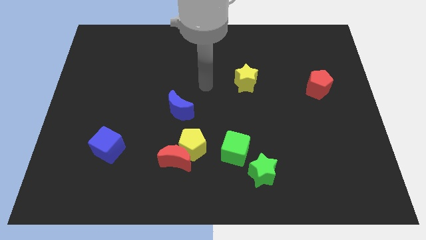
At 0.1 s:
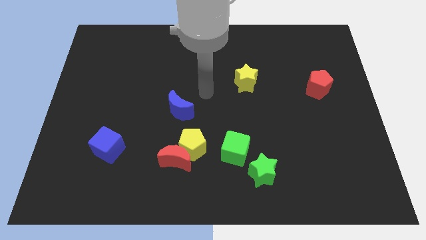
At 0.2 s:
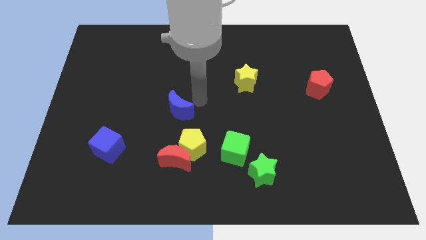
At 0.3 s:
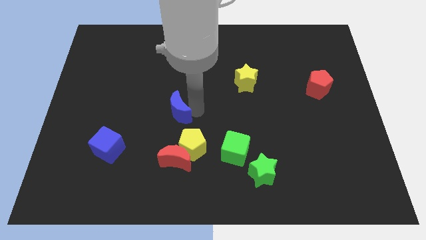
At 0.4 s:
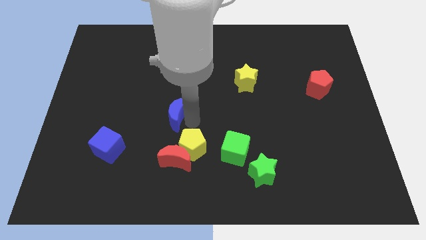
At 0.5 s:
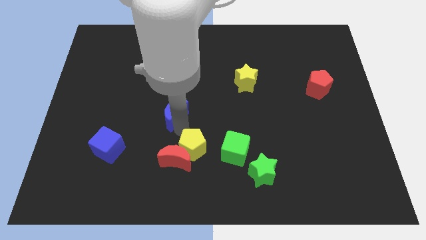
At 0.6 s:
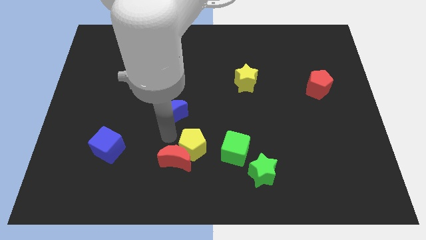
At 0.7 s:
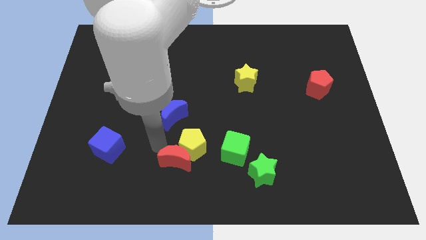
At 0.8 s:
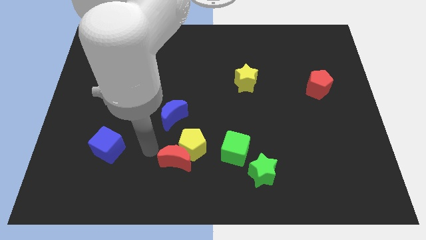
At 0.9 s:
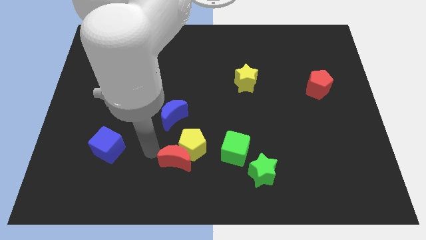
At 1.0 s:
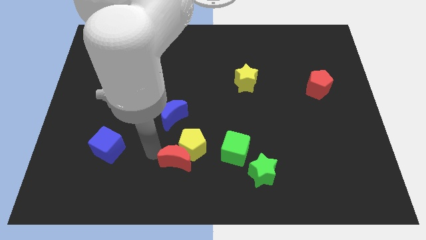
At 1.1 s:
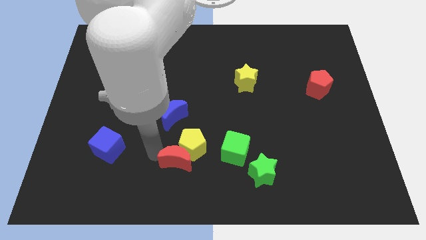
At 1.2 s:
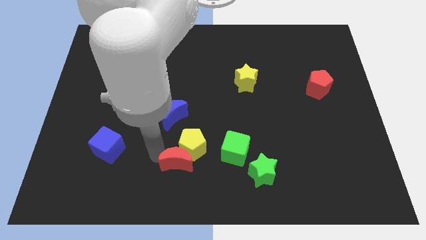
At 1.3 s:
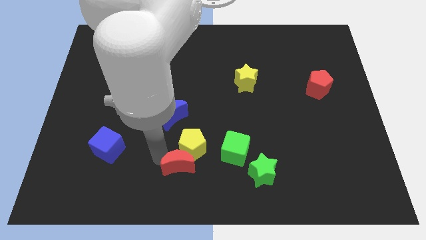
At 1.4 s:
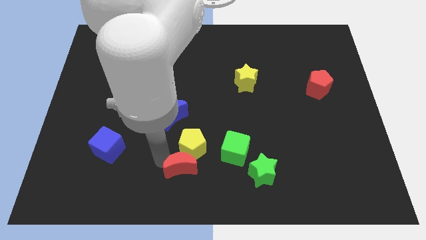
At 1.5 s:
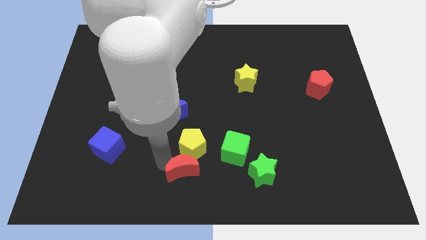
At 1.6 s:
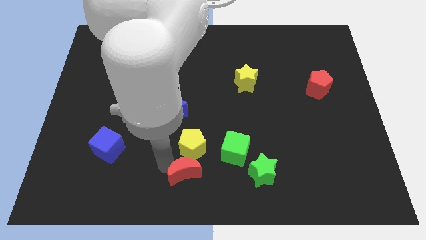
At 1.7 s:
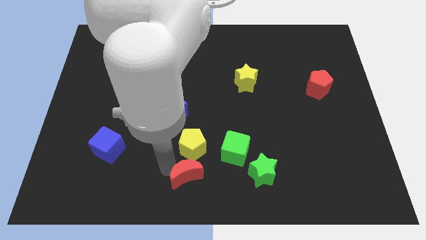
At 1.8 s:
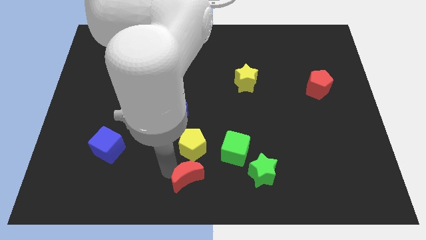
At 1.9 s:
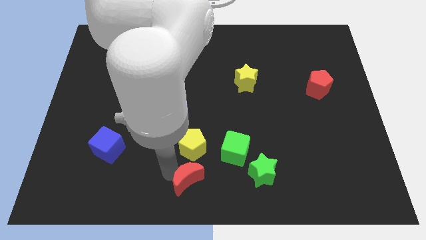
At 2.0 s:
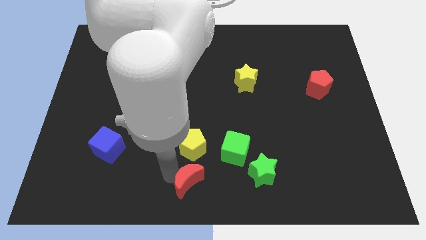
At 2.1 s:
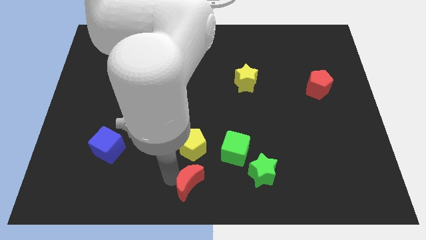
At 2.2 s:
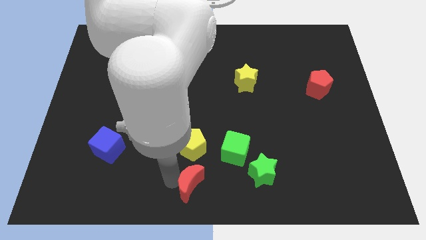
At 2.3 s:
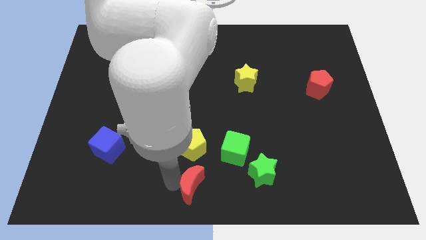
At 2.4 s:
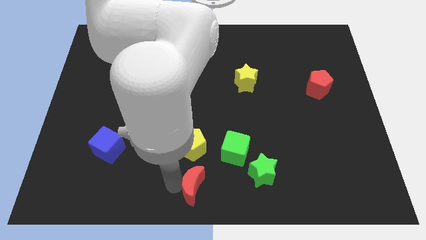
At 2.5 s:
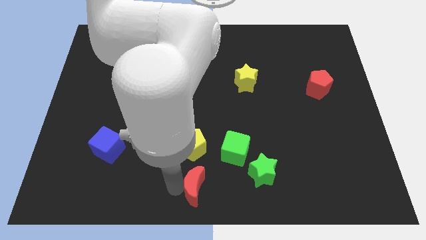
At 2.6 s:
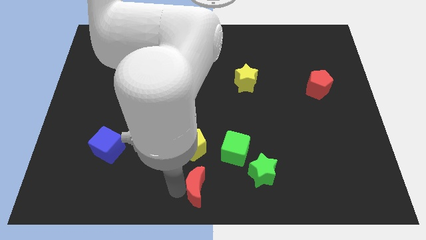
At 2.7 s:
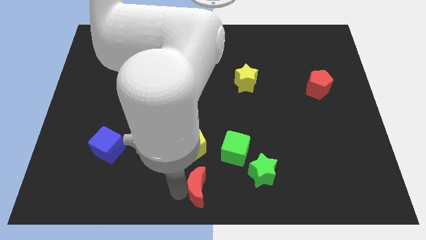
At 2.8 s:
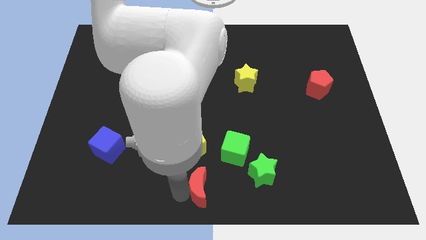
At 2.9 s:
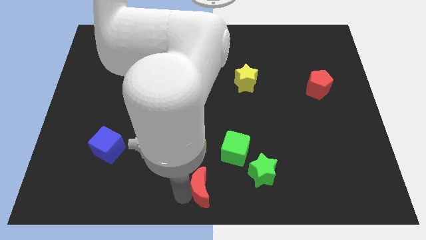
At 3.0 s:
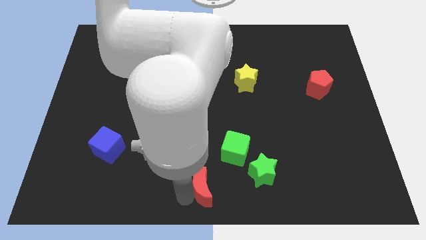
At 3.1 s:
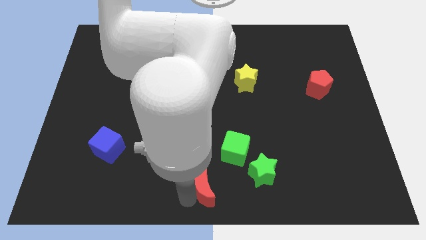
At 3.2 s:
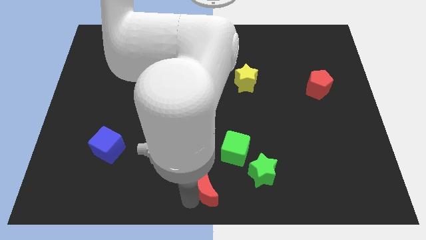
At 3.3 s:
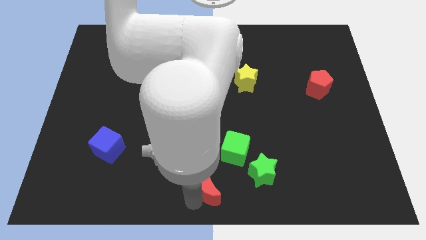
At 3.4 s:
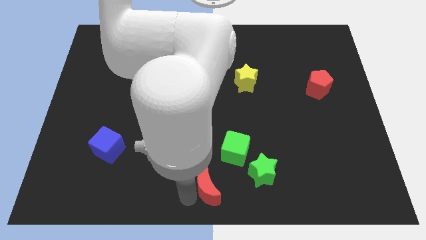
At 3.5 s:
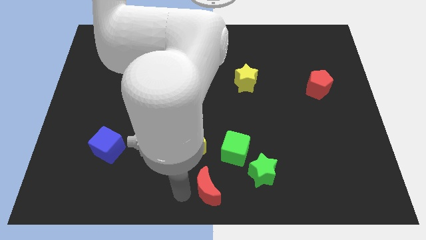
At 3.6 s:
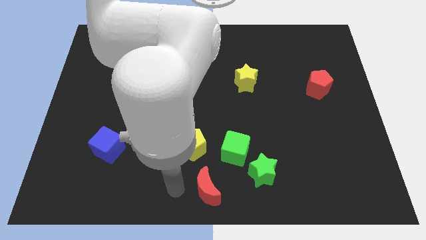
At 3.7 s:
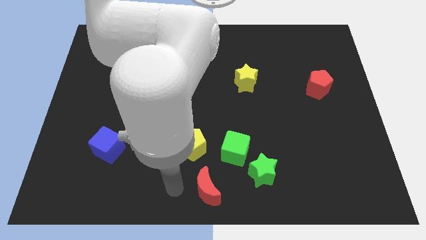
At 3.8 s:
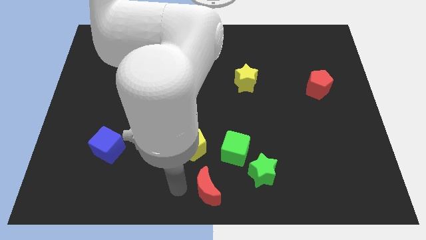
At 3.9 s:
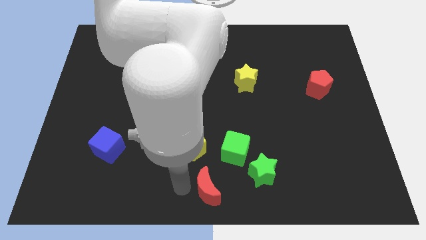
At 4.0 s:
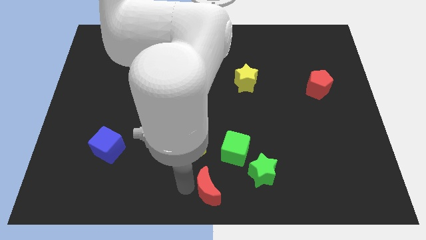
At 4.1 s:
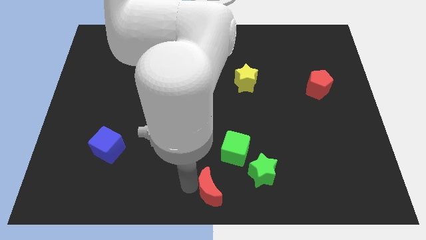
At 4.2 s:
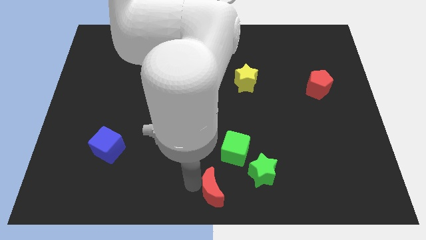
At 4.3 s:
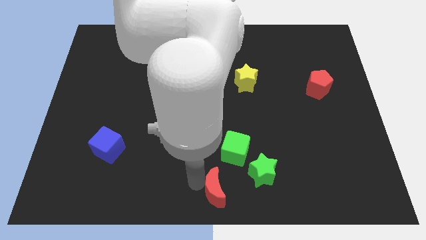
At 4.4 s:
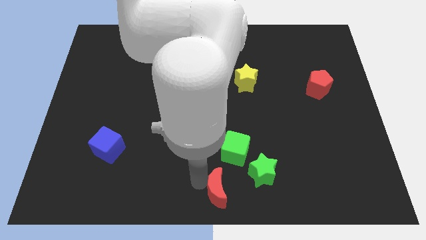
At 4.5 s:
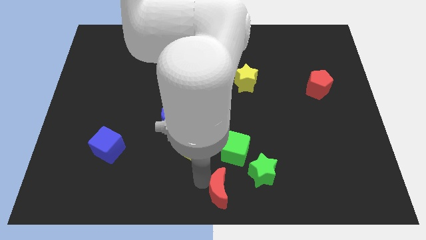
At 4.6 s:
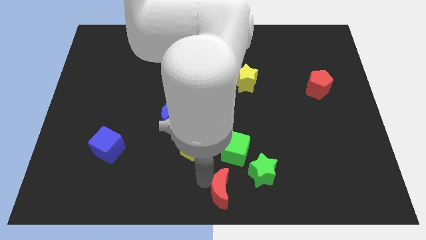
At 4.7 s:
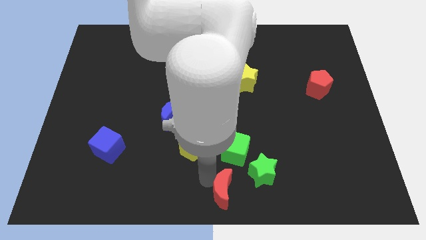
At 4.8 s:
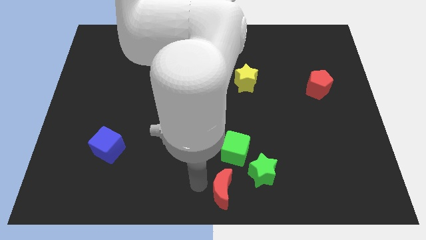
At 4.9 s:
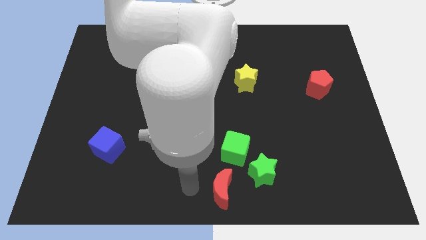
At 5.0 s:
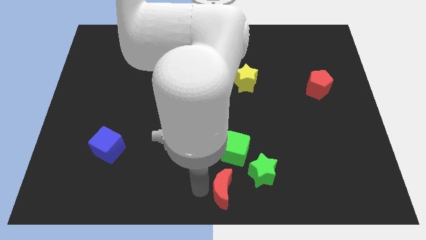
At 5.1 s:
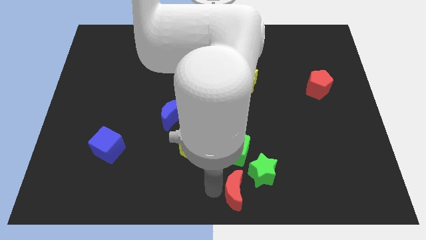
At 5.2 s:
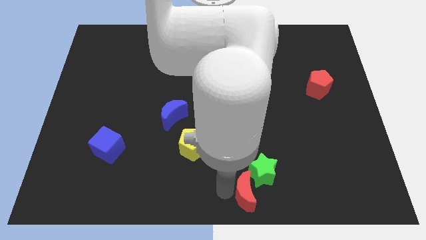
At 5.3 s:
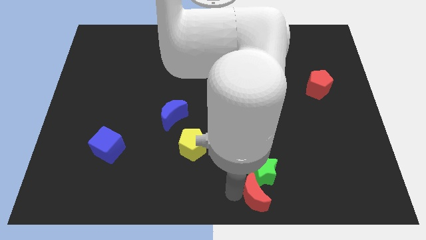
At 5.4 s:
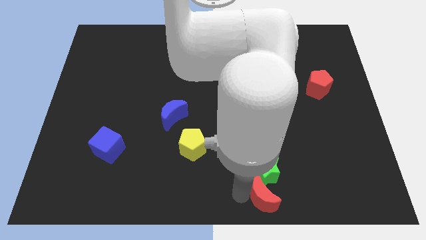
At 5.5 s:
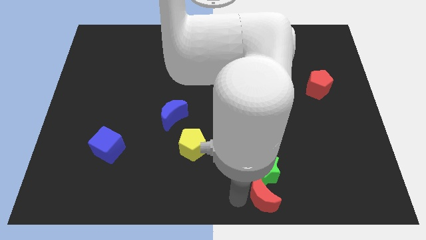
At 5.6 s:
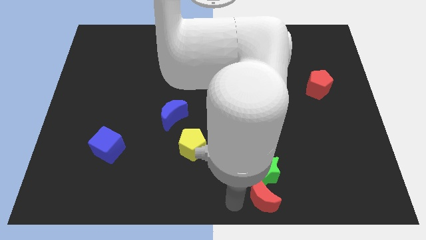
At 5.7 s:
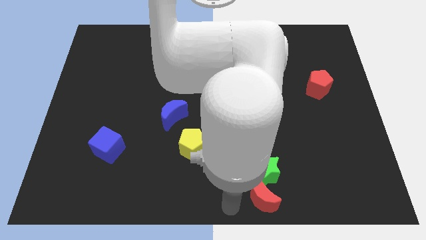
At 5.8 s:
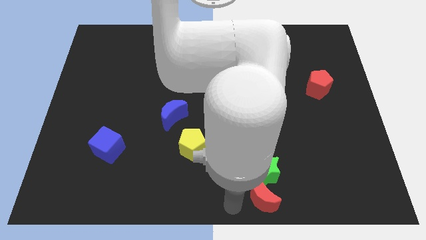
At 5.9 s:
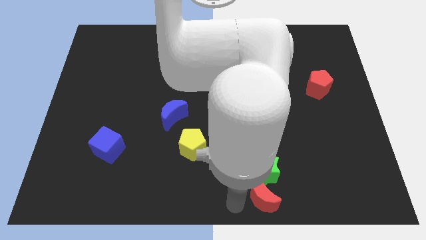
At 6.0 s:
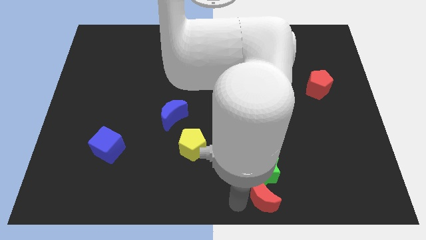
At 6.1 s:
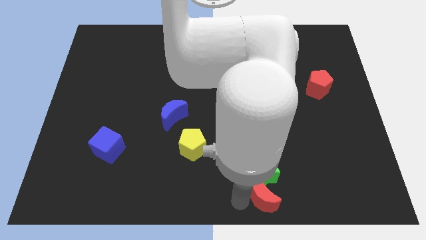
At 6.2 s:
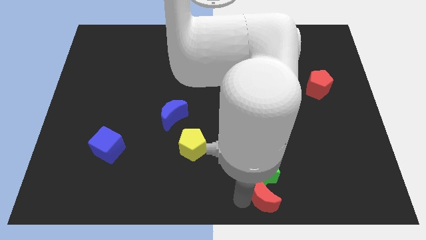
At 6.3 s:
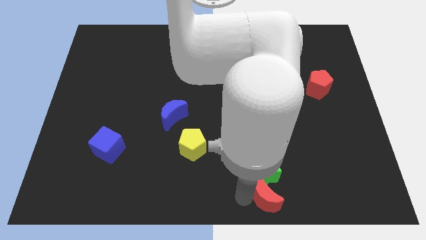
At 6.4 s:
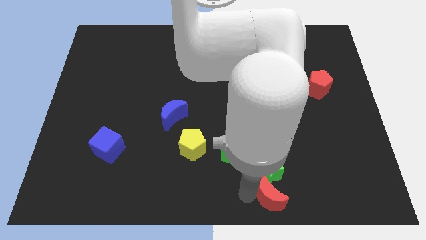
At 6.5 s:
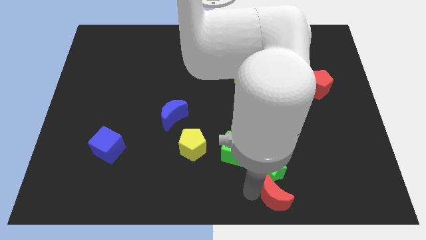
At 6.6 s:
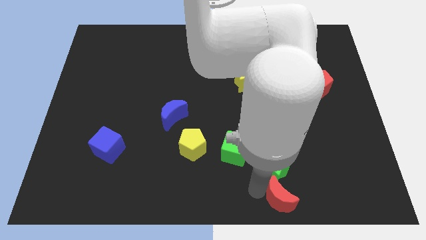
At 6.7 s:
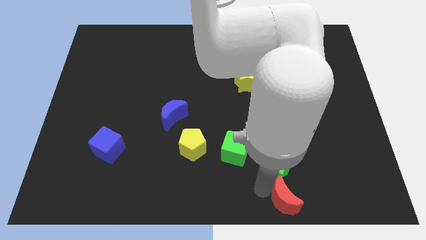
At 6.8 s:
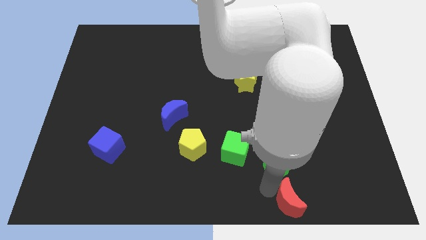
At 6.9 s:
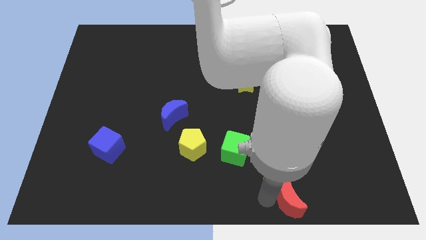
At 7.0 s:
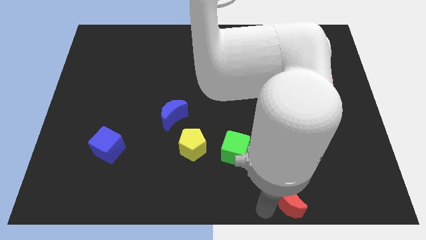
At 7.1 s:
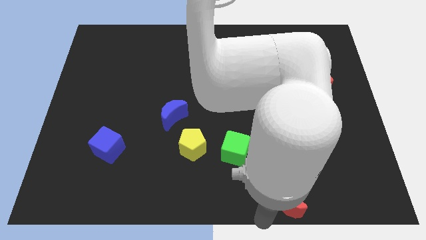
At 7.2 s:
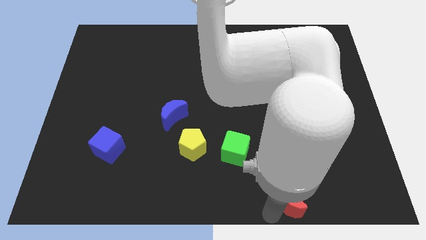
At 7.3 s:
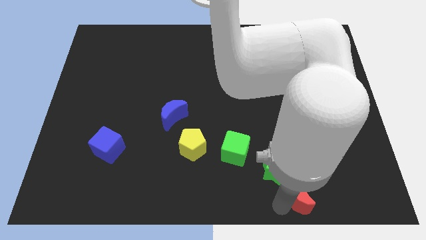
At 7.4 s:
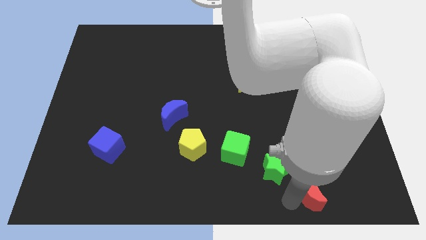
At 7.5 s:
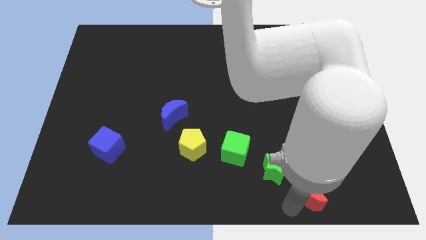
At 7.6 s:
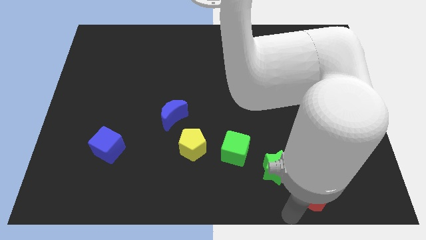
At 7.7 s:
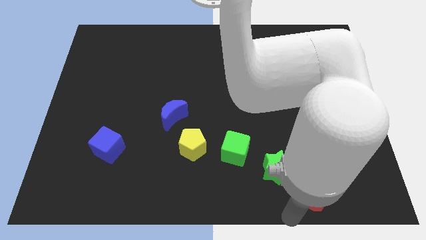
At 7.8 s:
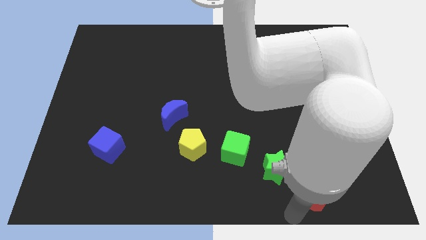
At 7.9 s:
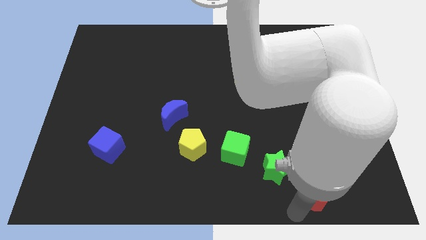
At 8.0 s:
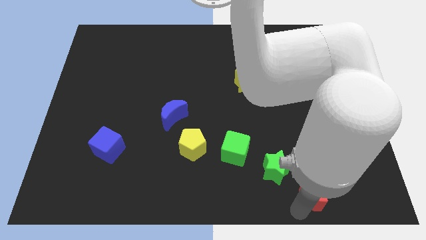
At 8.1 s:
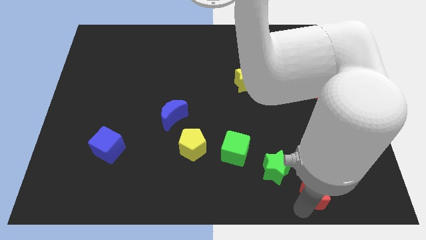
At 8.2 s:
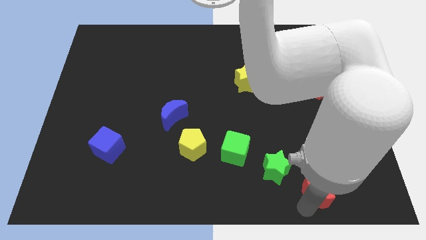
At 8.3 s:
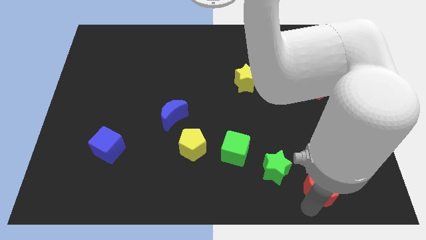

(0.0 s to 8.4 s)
put the red moon right of the green star
